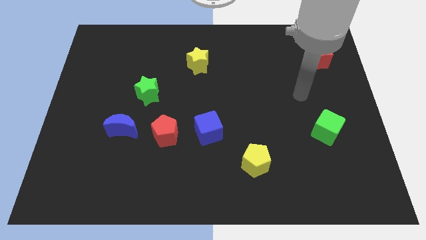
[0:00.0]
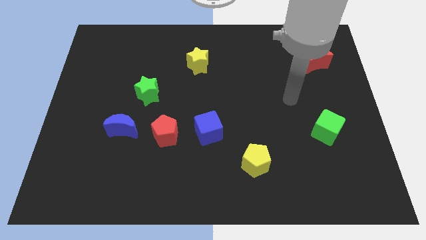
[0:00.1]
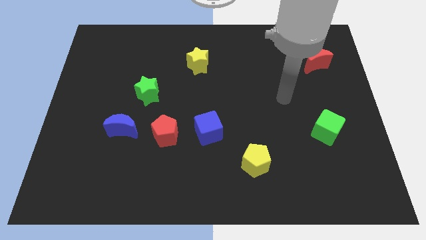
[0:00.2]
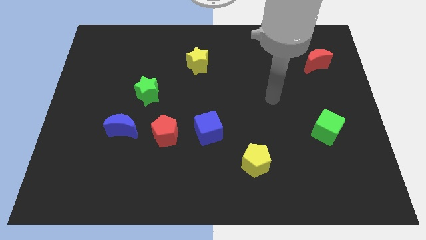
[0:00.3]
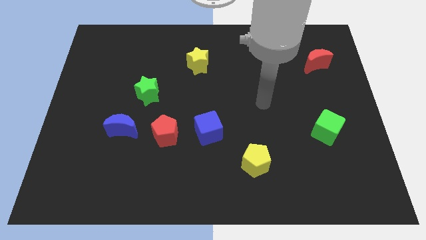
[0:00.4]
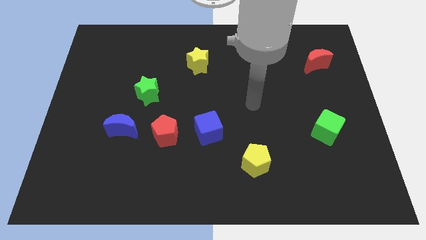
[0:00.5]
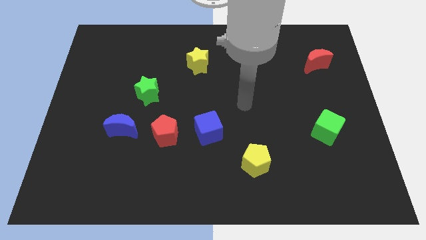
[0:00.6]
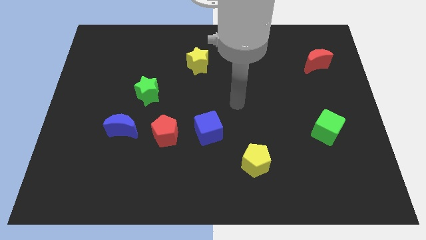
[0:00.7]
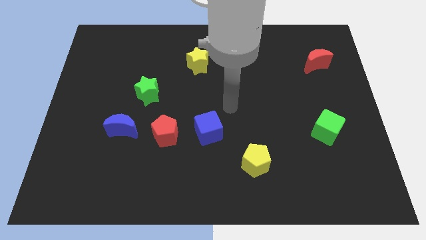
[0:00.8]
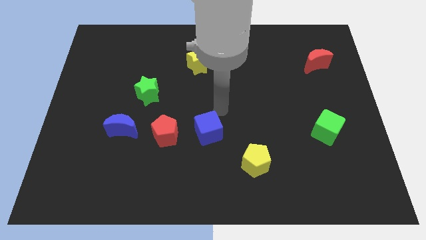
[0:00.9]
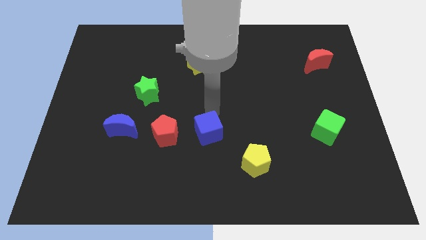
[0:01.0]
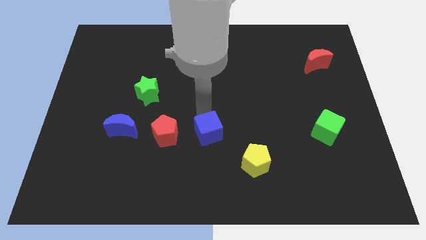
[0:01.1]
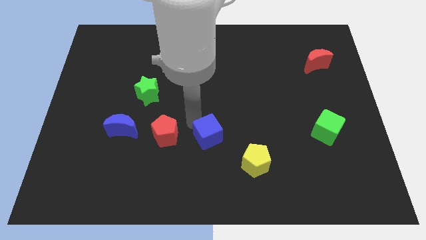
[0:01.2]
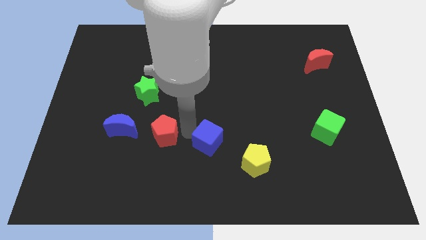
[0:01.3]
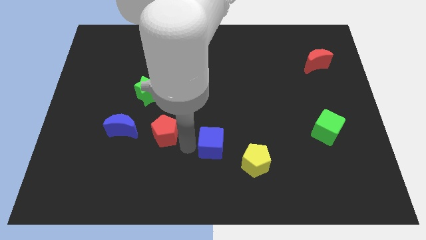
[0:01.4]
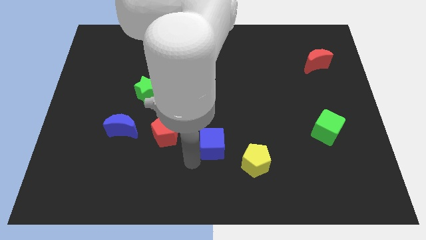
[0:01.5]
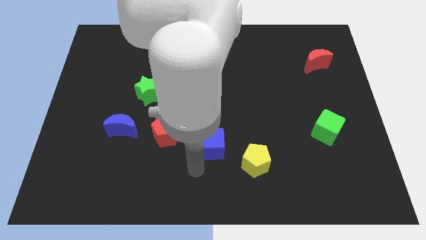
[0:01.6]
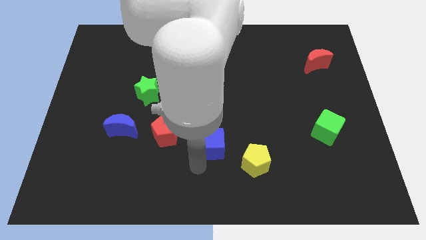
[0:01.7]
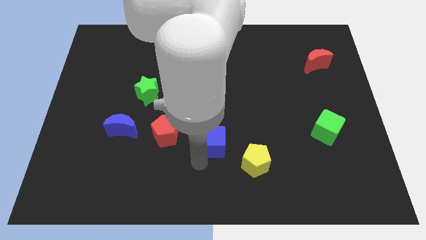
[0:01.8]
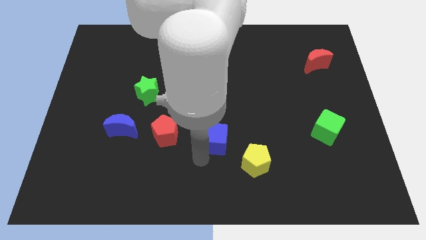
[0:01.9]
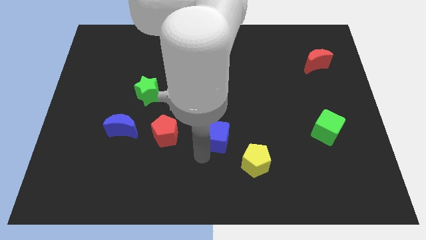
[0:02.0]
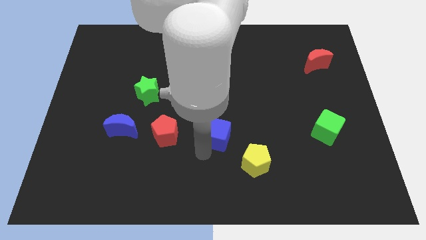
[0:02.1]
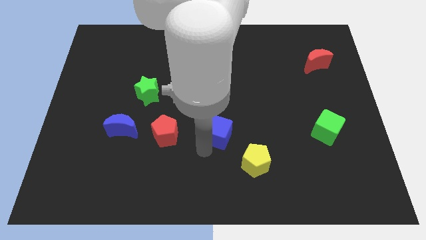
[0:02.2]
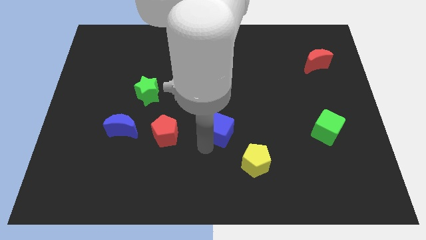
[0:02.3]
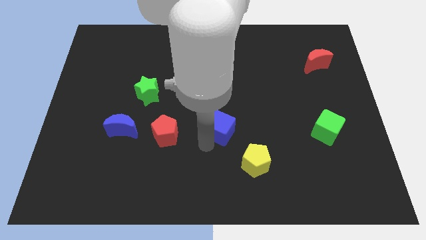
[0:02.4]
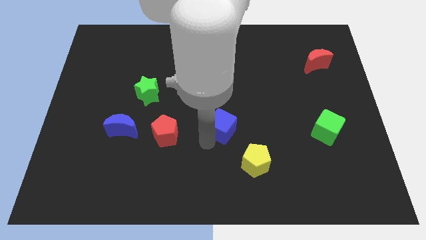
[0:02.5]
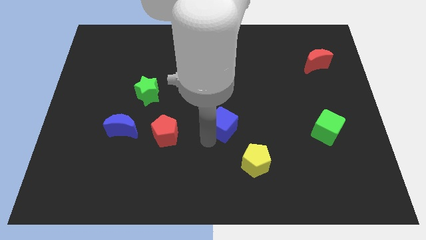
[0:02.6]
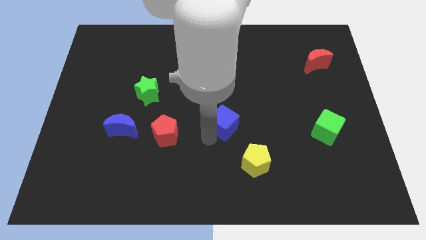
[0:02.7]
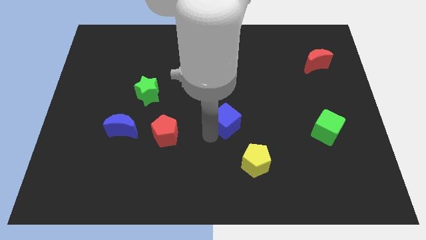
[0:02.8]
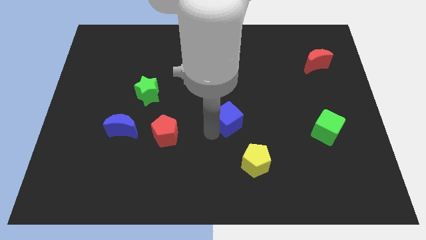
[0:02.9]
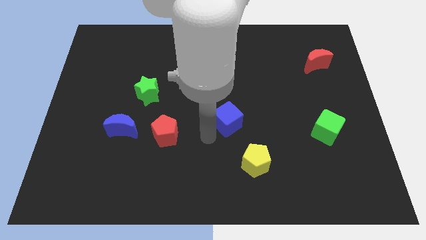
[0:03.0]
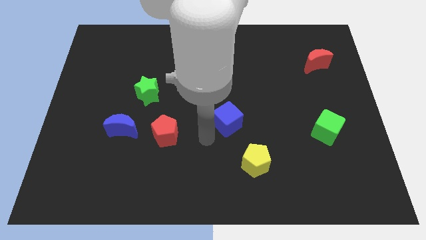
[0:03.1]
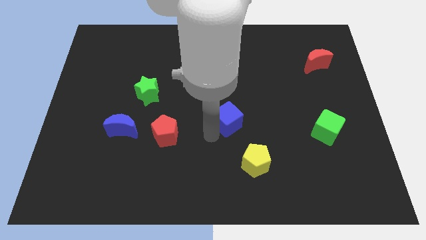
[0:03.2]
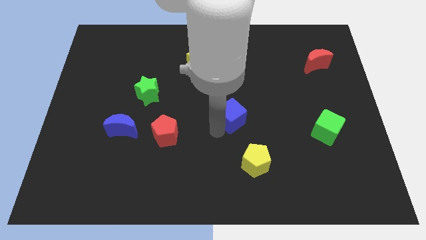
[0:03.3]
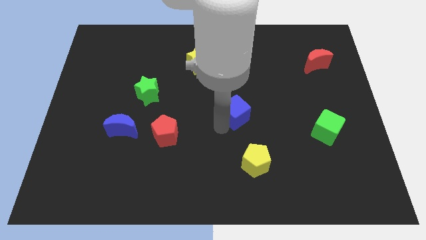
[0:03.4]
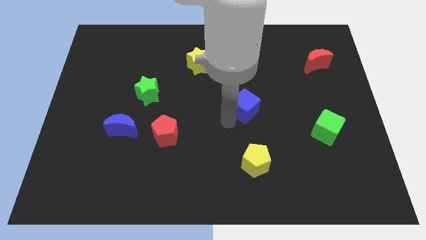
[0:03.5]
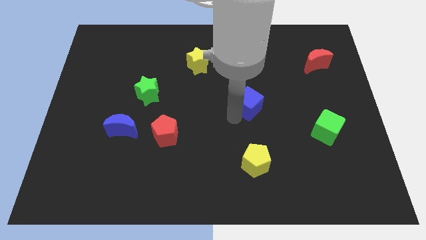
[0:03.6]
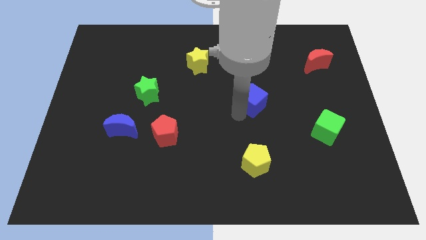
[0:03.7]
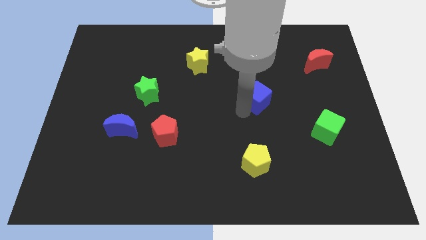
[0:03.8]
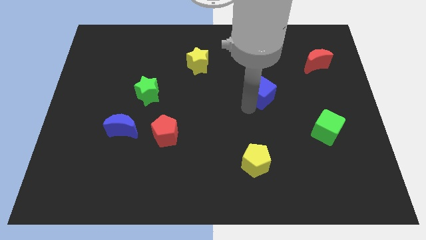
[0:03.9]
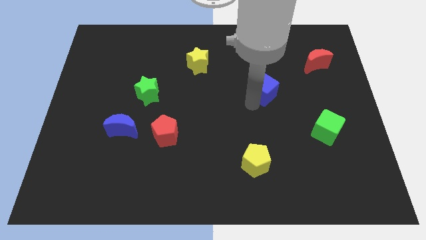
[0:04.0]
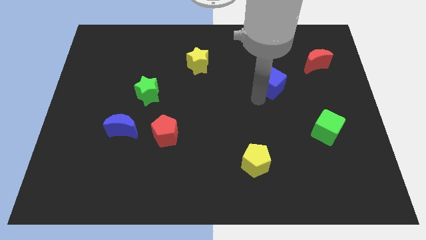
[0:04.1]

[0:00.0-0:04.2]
push the blue cube up and then right

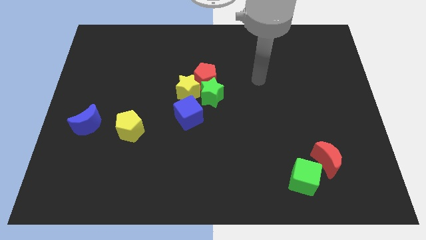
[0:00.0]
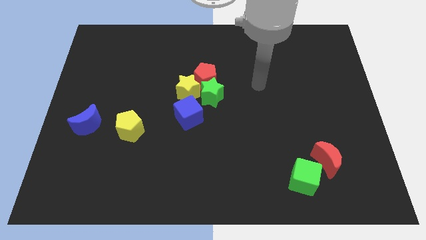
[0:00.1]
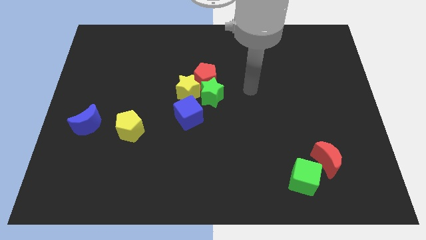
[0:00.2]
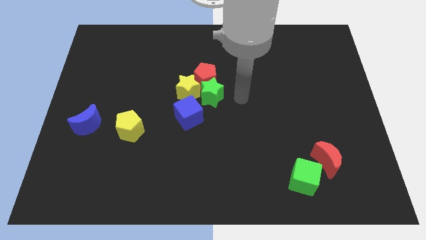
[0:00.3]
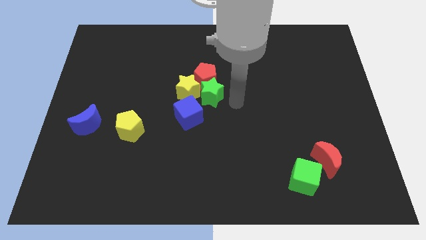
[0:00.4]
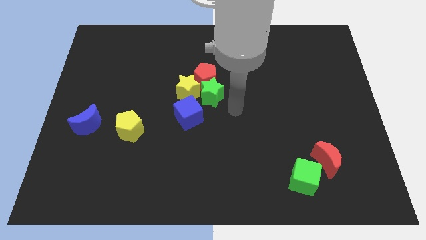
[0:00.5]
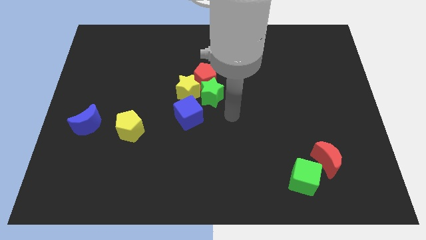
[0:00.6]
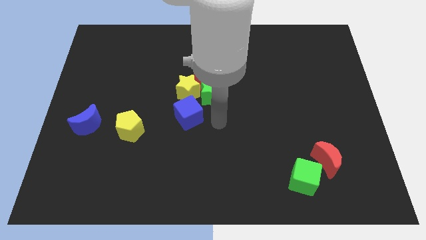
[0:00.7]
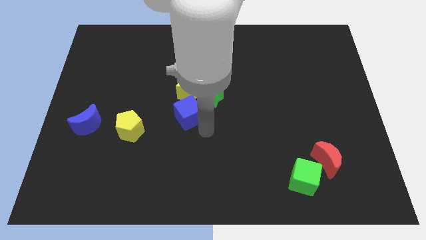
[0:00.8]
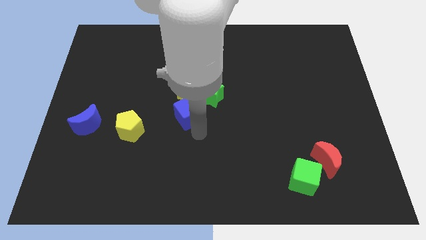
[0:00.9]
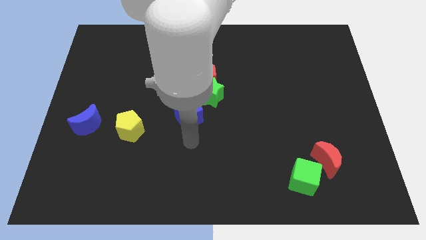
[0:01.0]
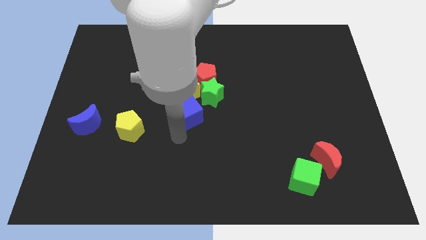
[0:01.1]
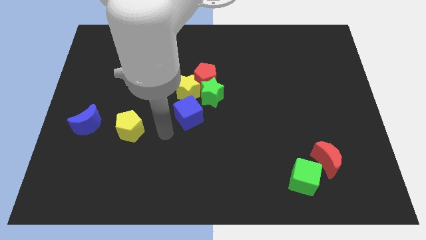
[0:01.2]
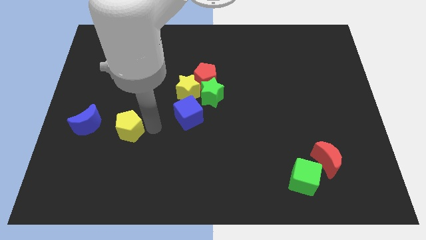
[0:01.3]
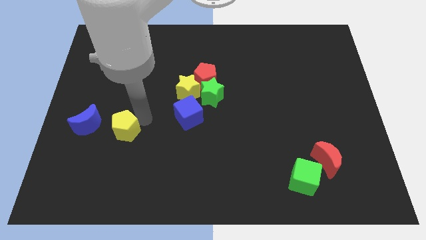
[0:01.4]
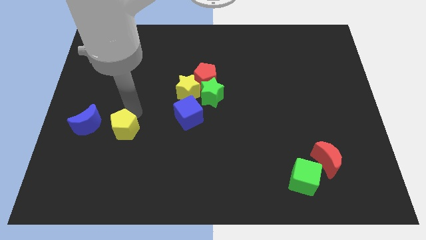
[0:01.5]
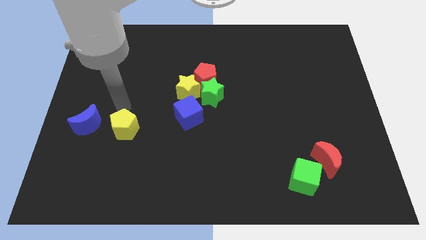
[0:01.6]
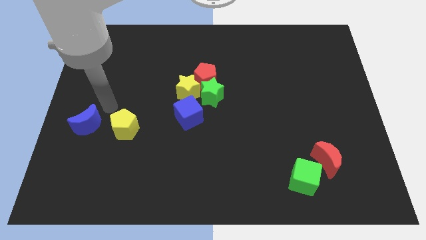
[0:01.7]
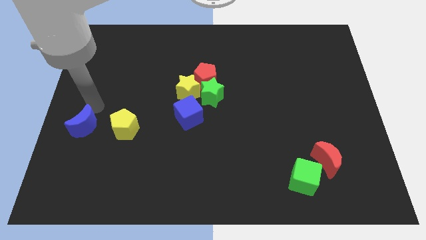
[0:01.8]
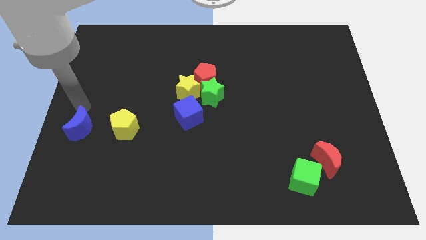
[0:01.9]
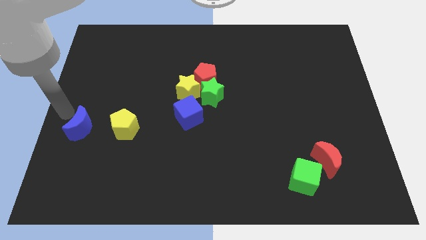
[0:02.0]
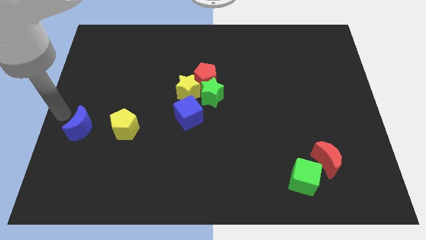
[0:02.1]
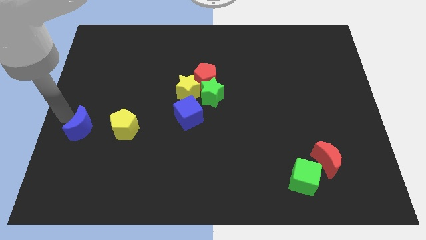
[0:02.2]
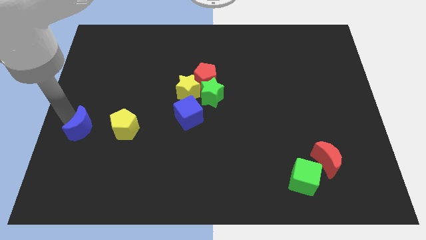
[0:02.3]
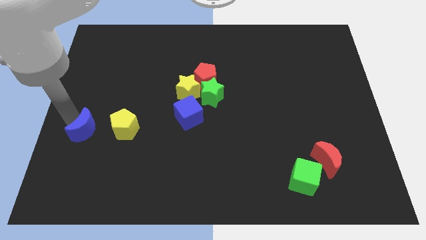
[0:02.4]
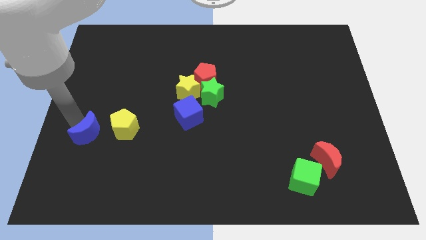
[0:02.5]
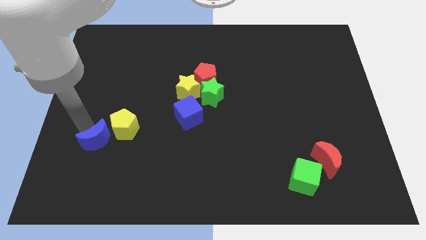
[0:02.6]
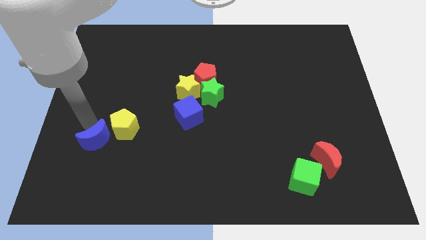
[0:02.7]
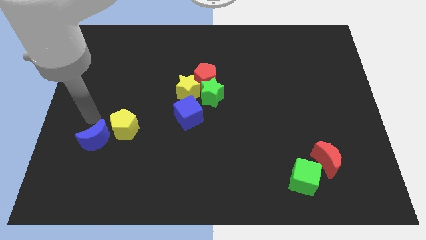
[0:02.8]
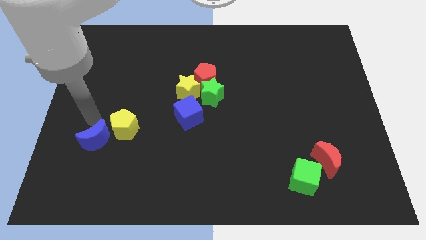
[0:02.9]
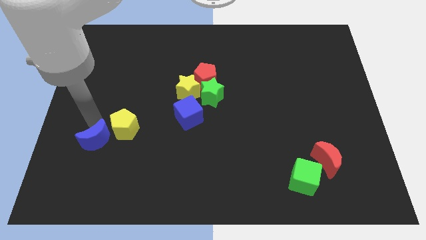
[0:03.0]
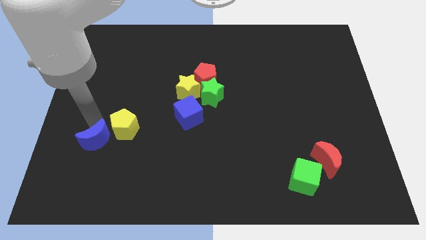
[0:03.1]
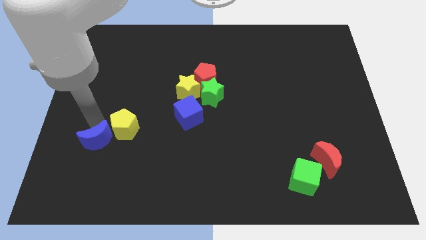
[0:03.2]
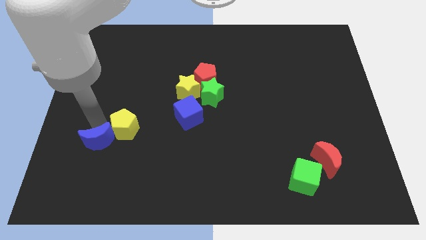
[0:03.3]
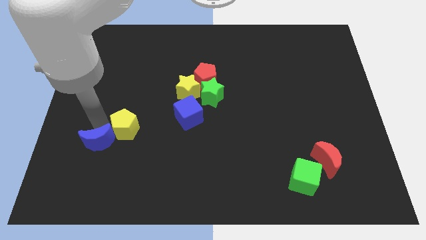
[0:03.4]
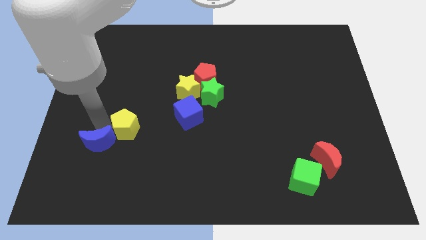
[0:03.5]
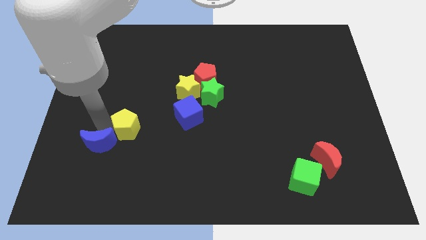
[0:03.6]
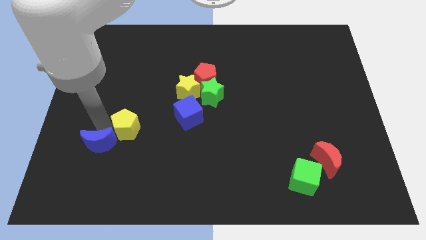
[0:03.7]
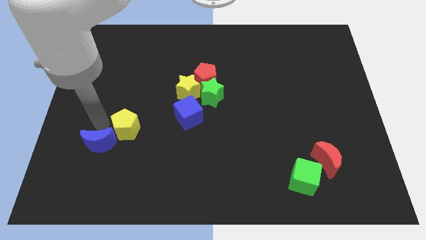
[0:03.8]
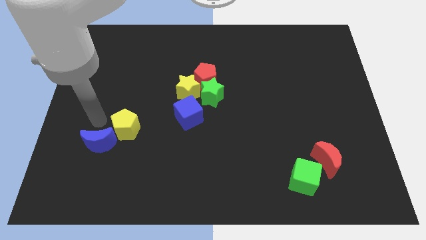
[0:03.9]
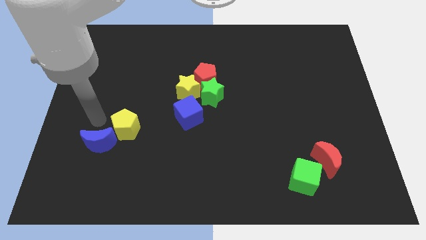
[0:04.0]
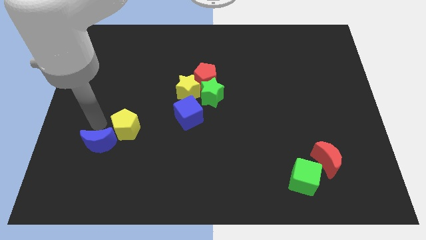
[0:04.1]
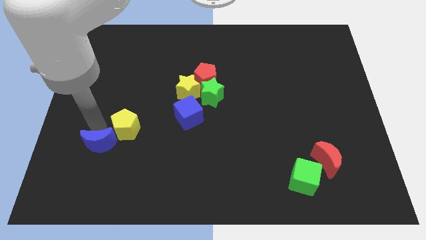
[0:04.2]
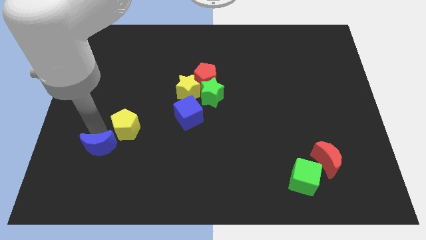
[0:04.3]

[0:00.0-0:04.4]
move the blue moon a bit down and then to the right
